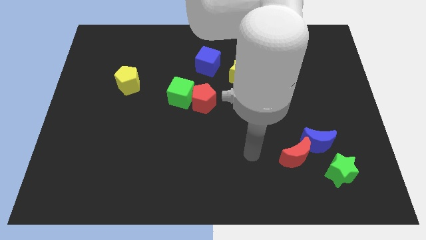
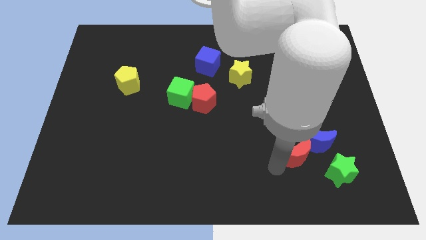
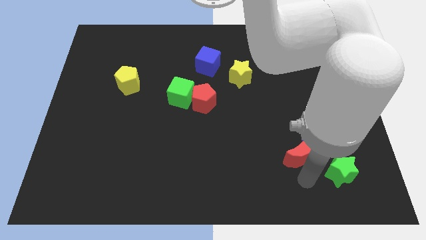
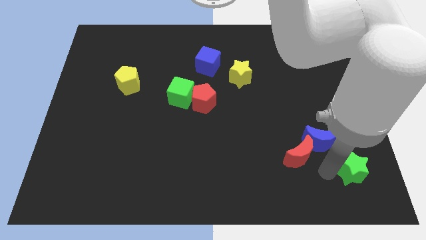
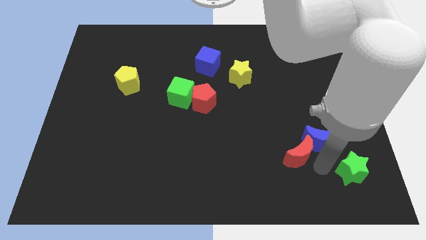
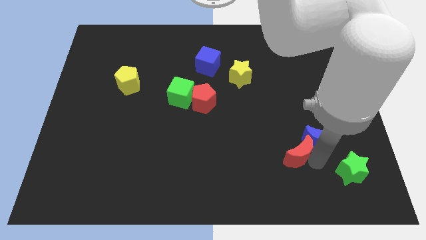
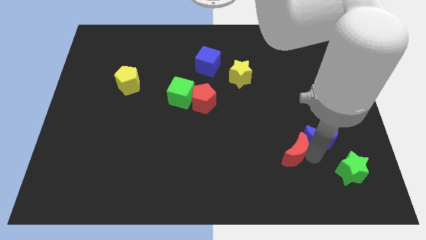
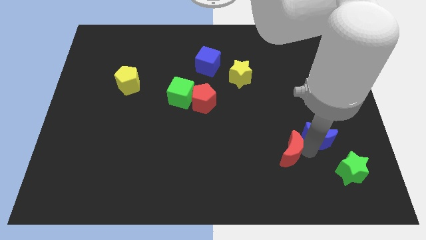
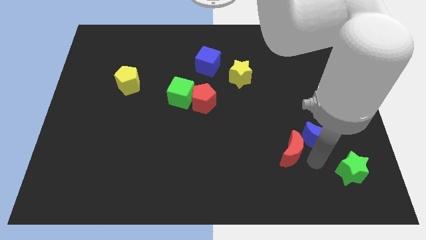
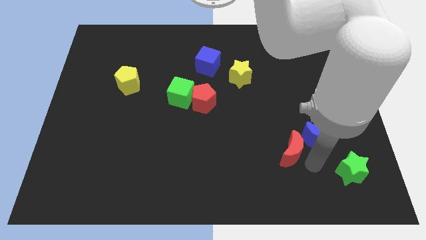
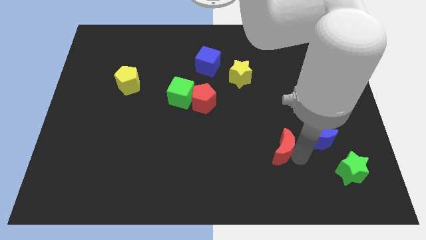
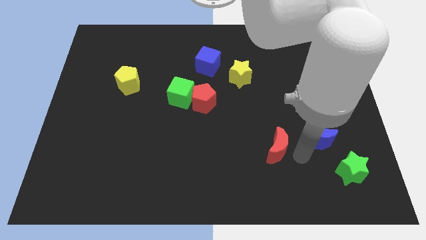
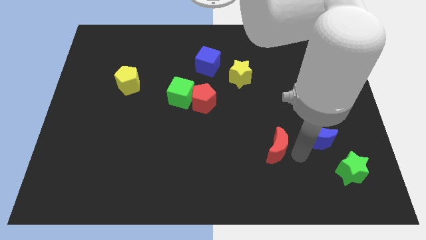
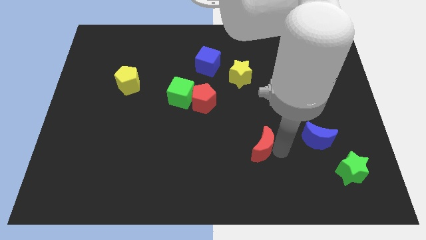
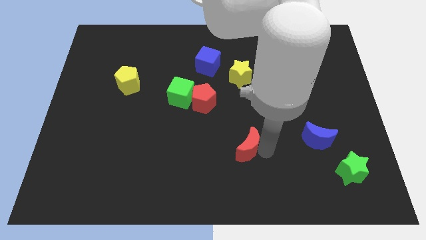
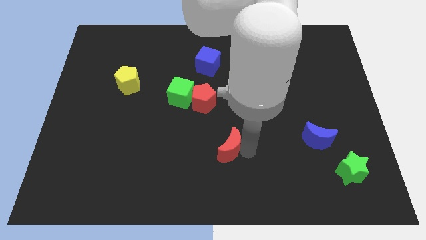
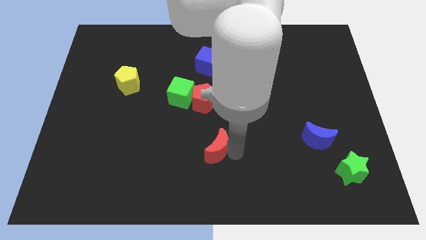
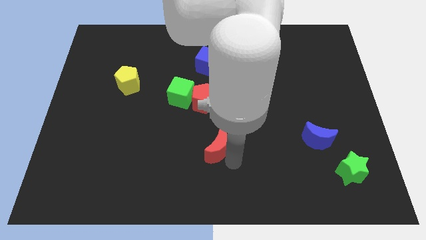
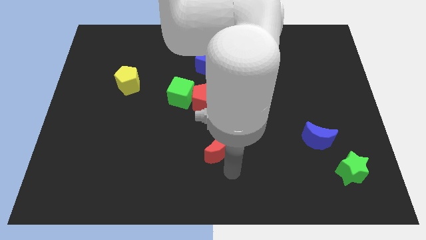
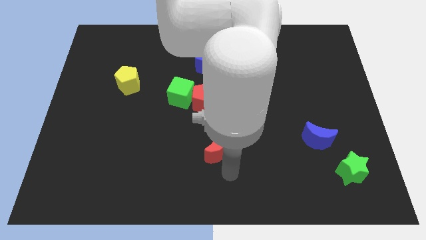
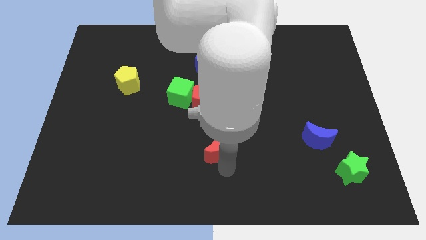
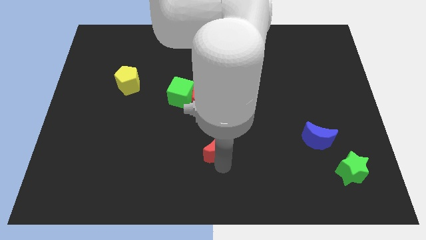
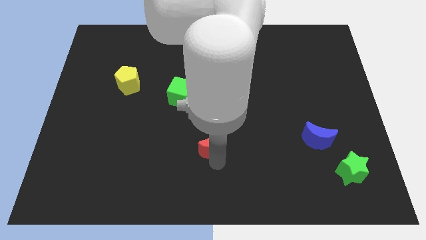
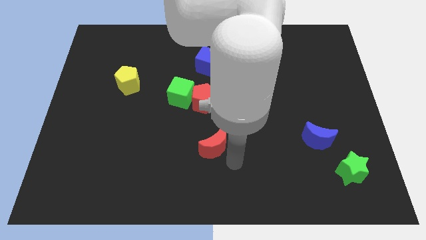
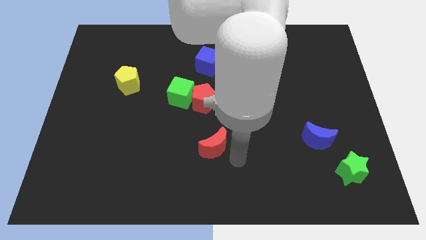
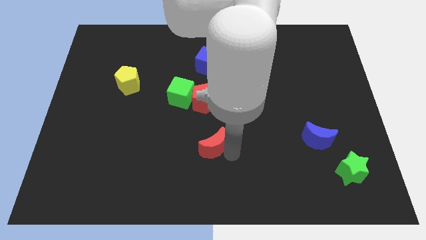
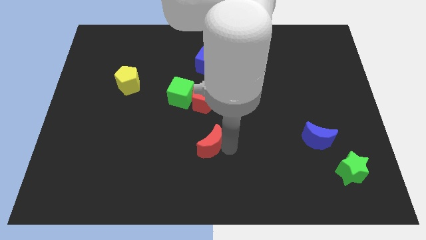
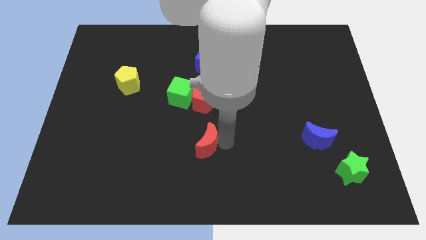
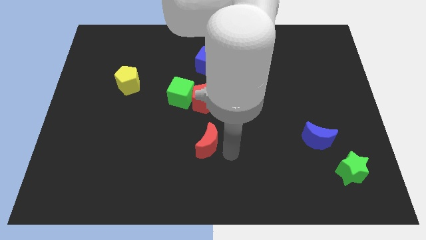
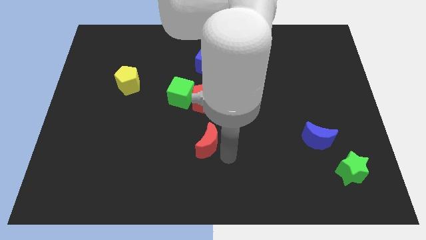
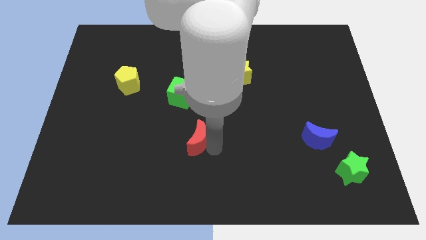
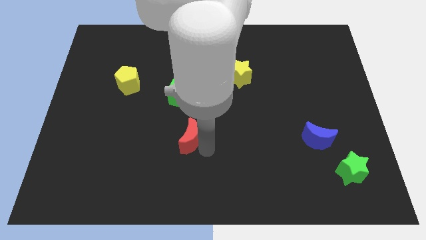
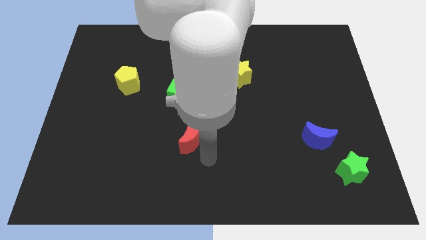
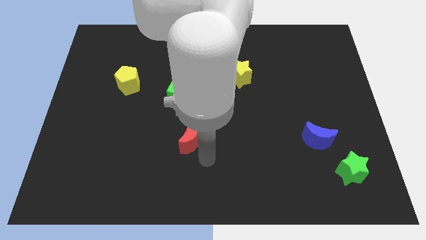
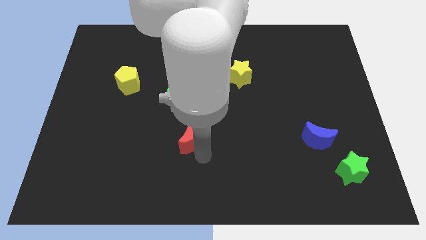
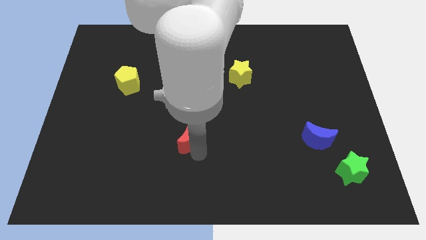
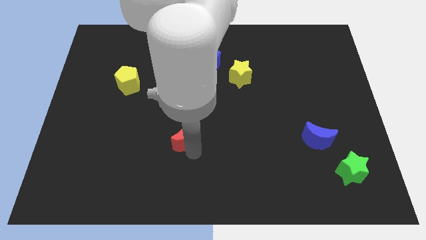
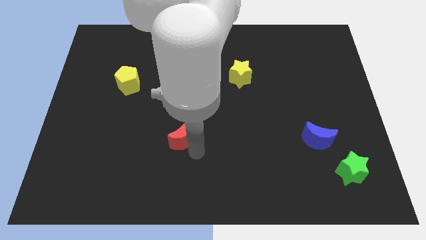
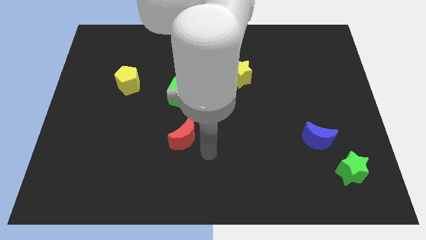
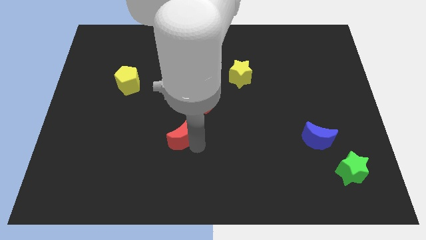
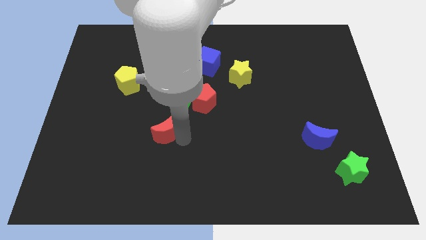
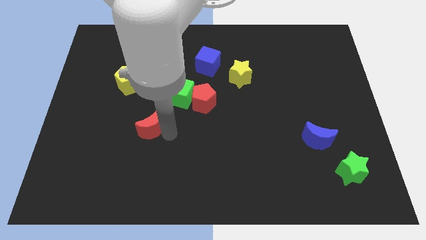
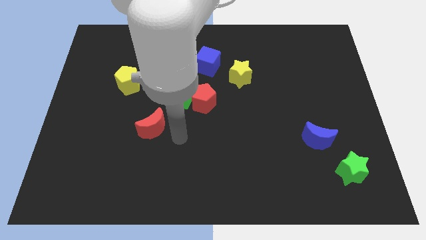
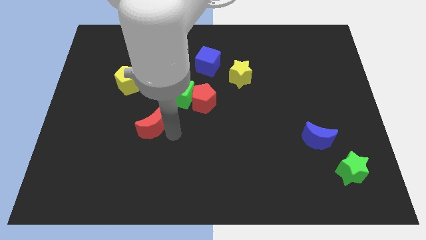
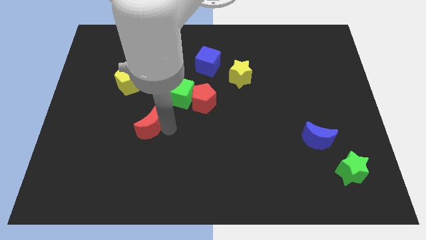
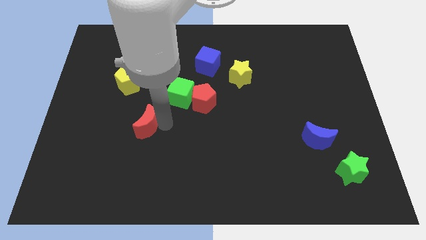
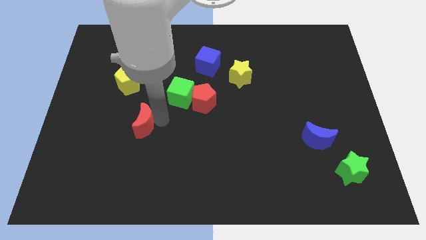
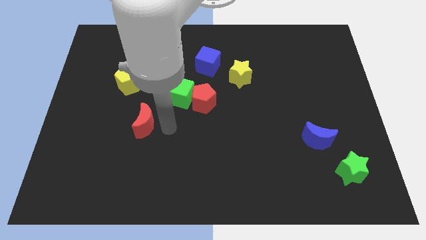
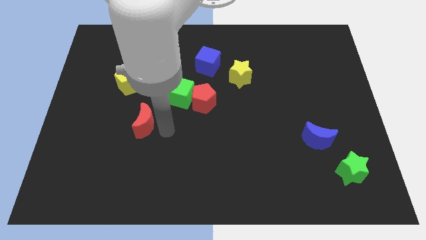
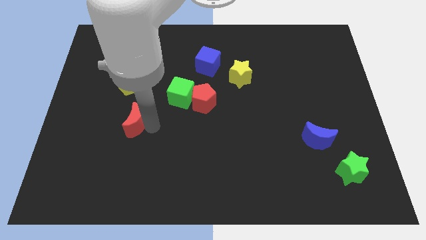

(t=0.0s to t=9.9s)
slide the red moon below the yellow pentagon

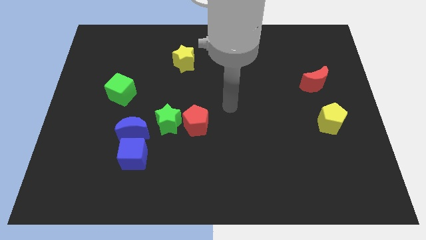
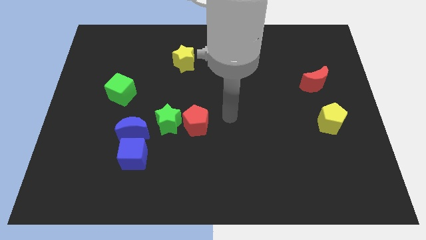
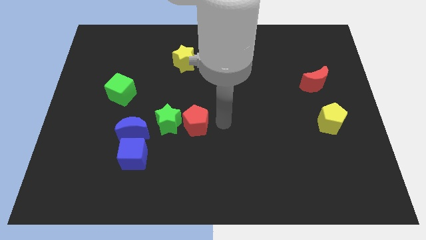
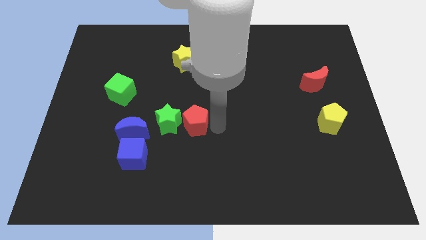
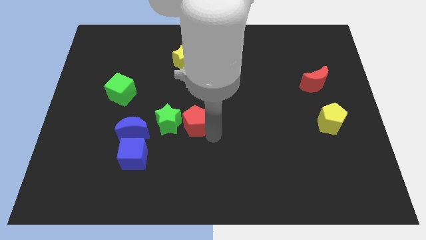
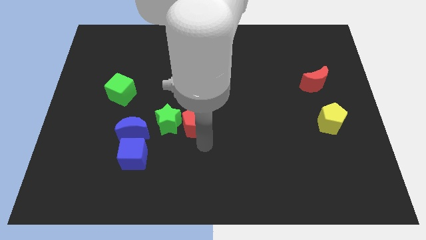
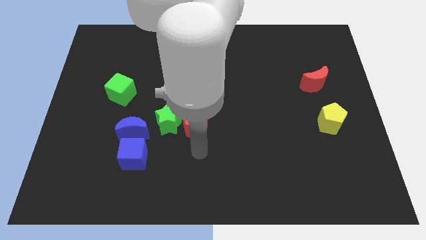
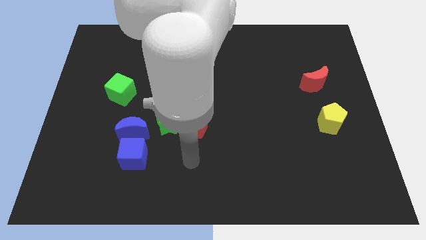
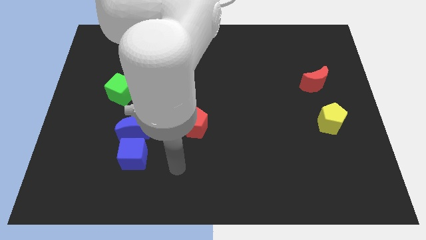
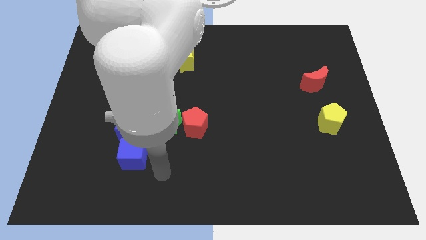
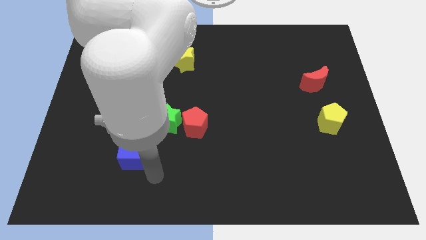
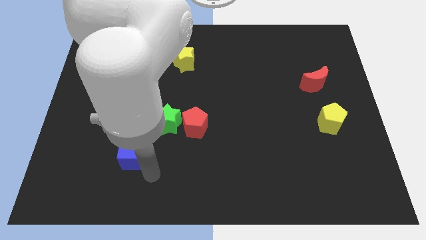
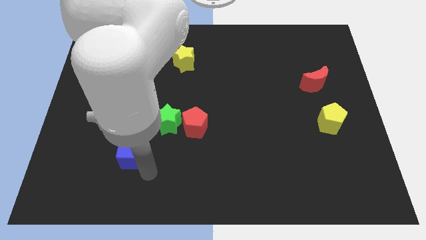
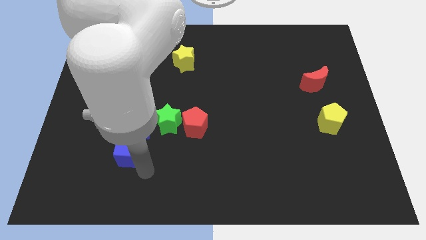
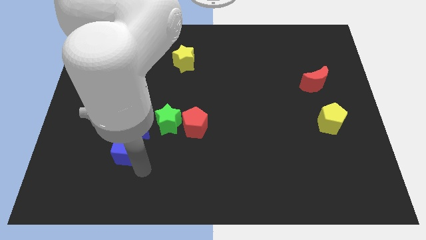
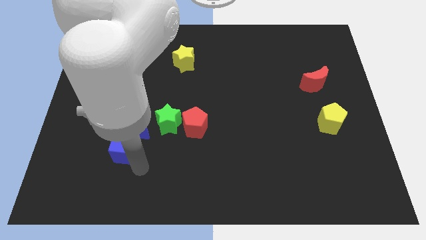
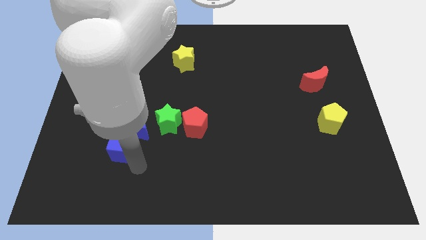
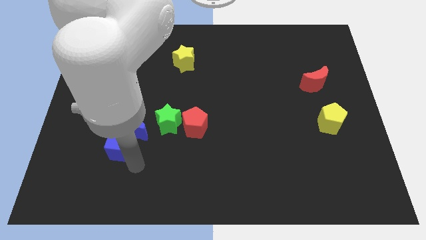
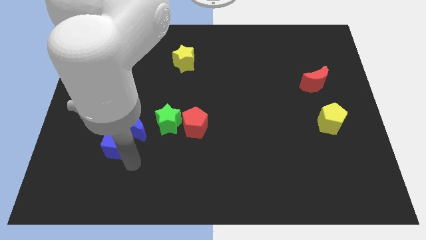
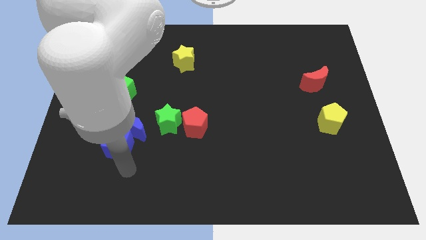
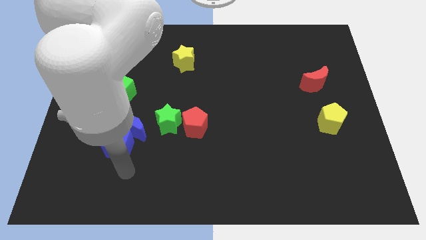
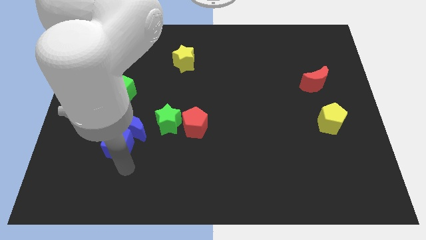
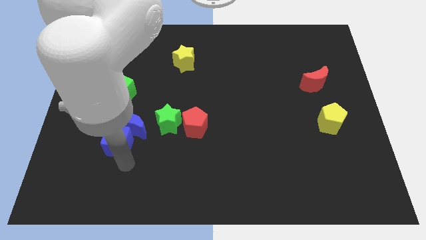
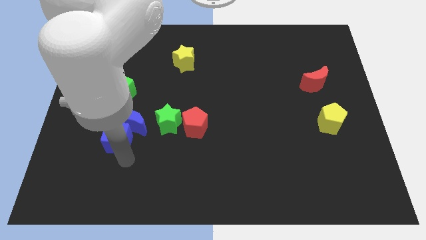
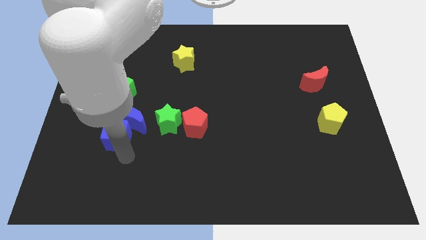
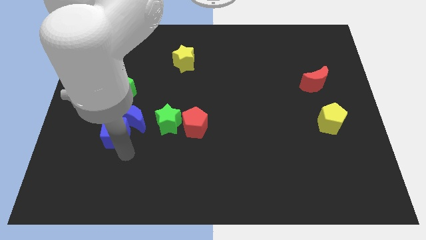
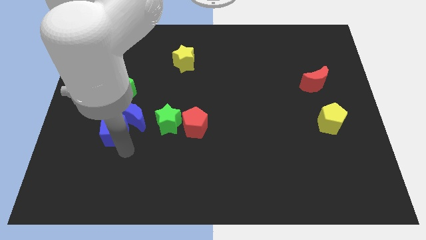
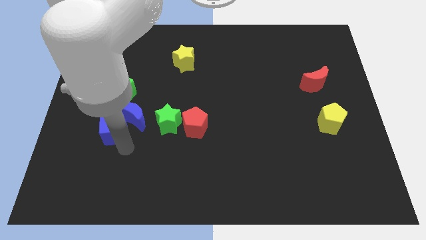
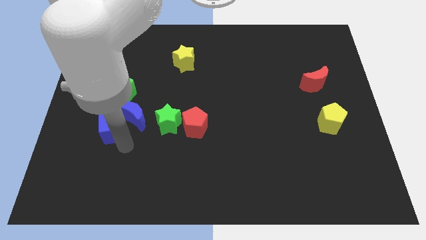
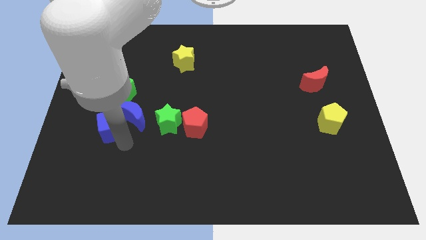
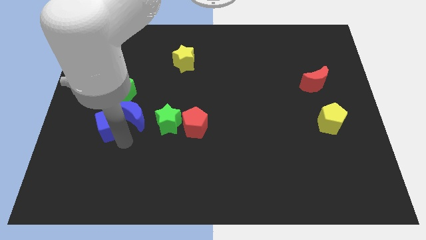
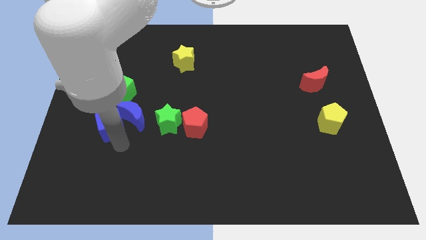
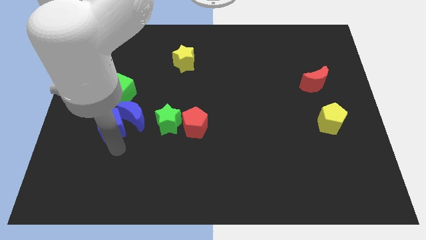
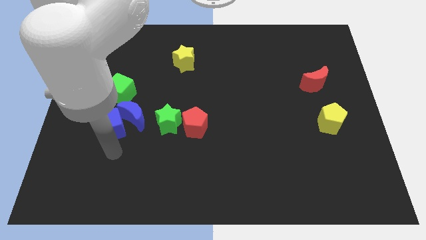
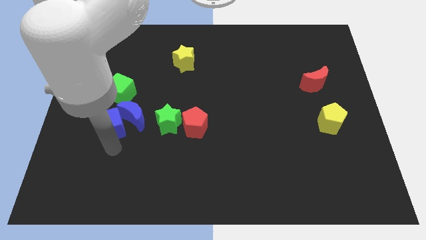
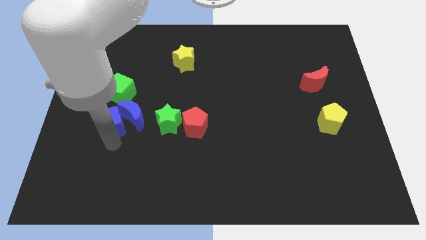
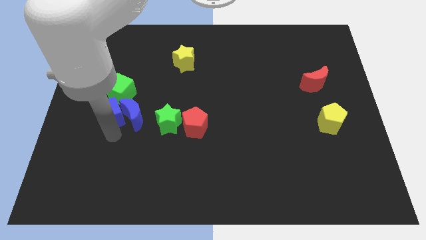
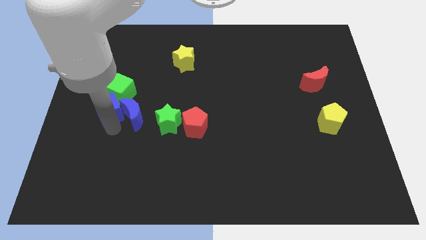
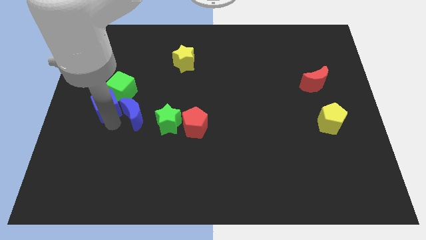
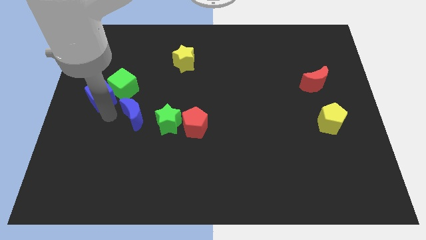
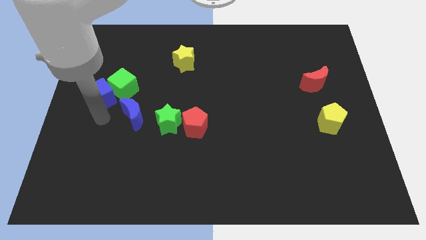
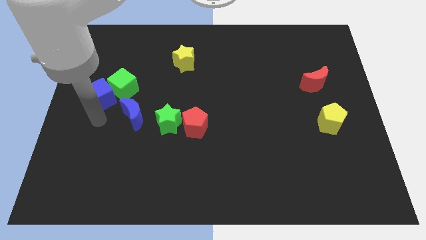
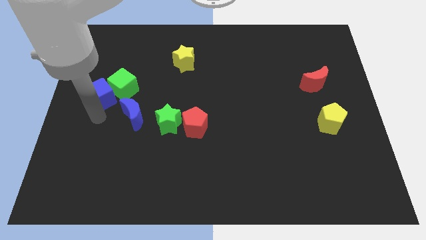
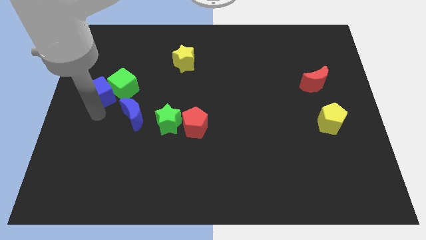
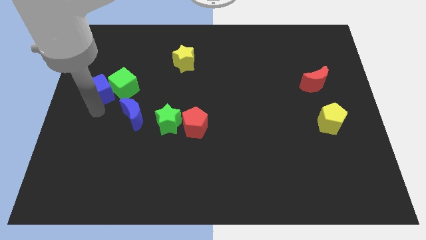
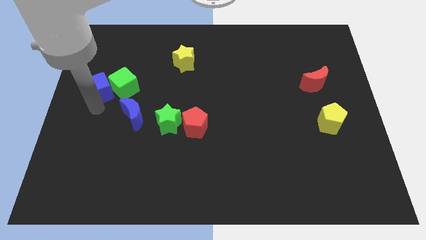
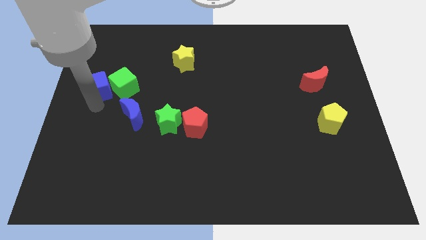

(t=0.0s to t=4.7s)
put the blue cube diagonally up and to the left of the green cube
